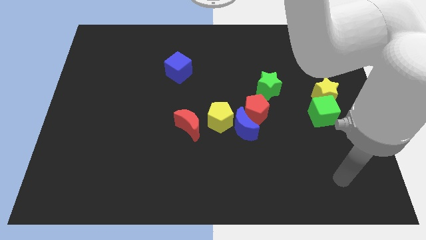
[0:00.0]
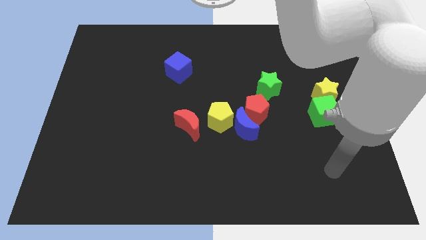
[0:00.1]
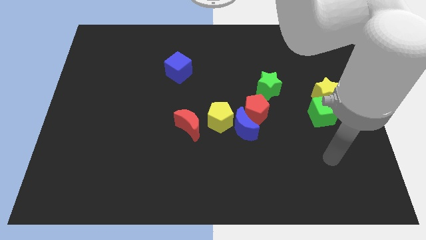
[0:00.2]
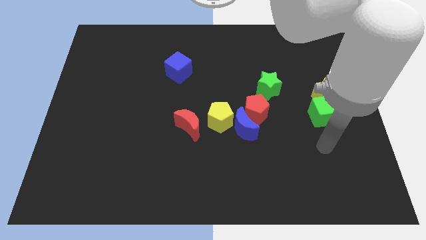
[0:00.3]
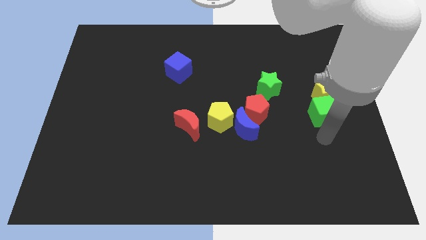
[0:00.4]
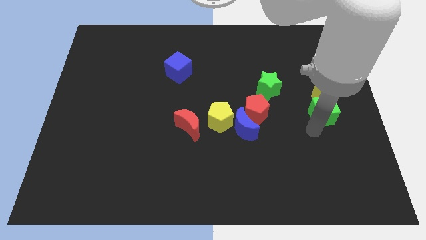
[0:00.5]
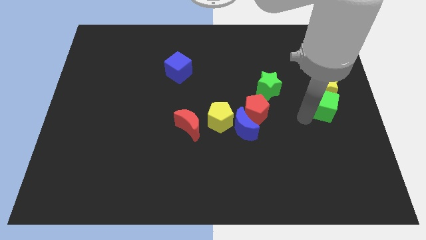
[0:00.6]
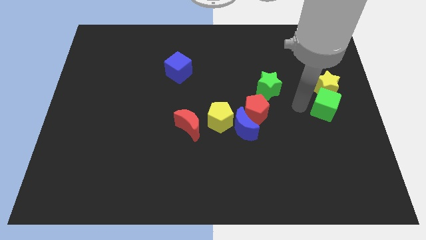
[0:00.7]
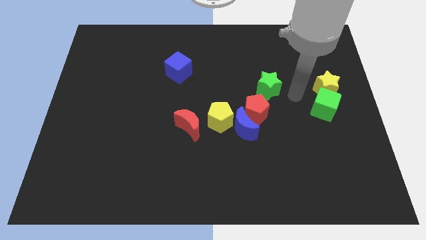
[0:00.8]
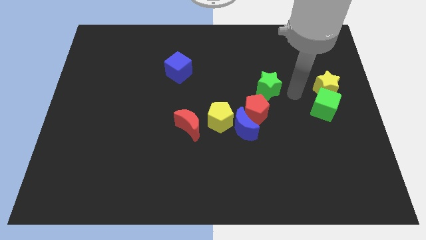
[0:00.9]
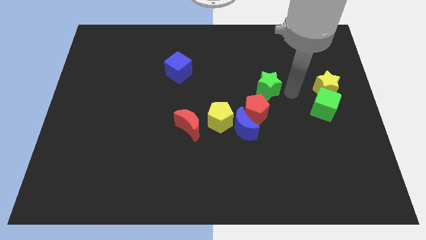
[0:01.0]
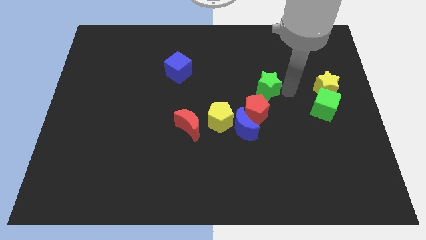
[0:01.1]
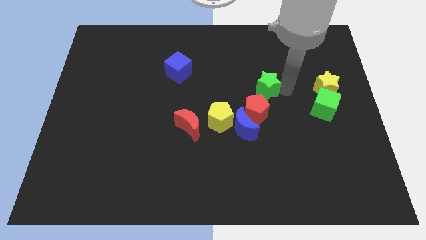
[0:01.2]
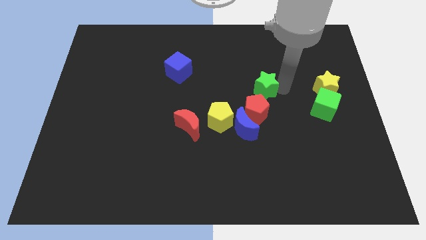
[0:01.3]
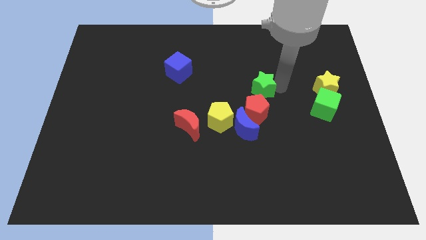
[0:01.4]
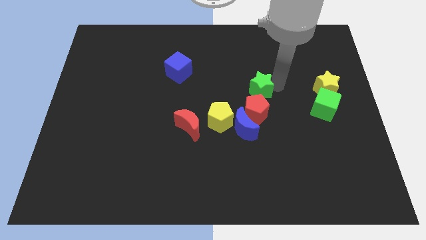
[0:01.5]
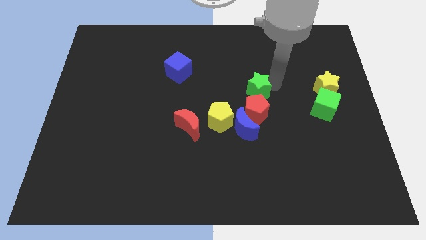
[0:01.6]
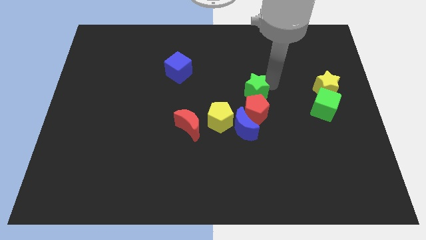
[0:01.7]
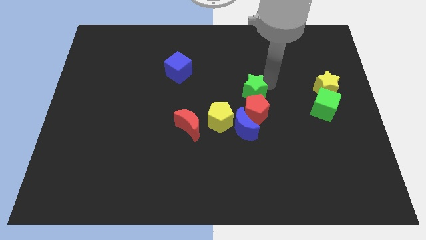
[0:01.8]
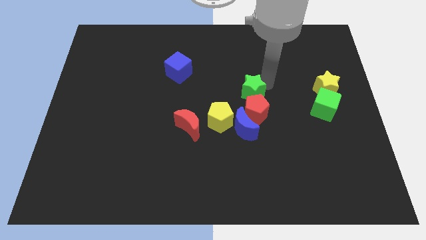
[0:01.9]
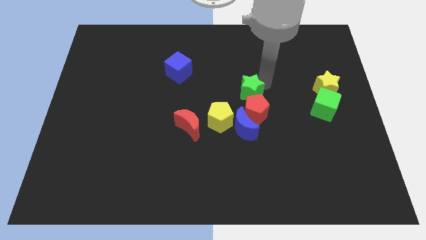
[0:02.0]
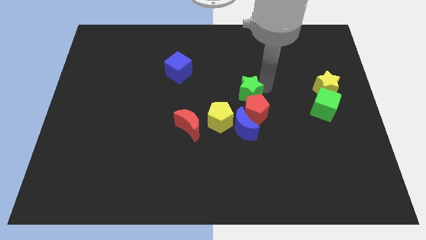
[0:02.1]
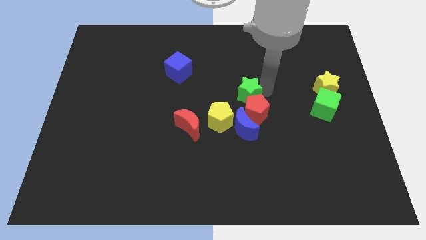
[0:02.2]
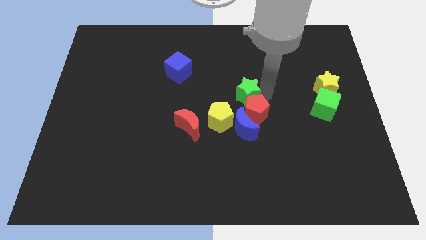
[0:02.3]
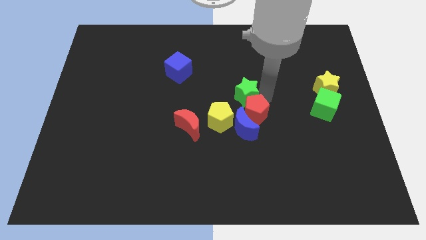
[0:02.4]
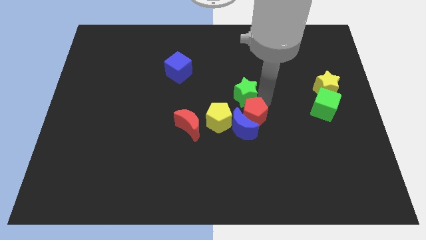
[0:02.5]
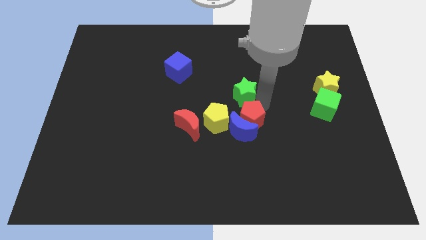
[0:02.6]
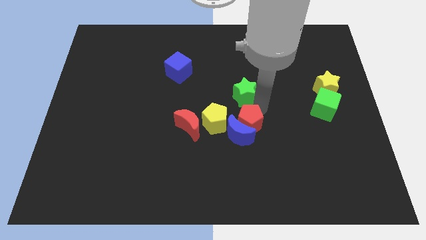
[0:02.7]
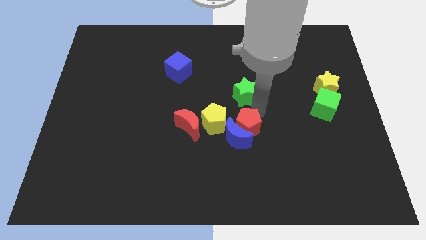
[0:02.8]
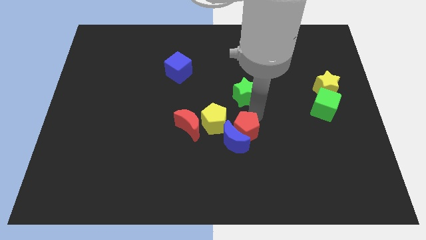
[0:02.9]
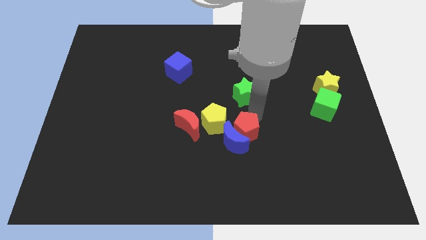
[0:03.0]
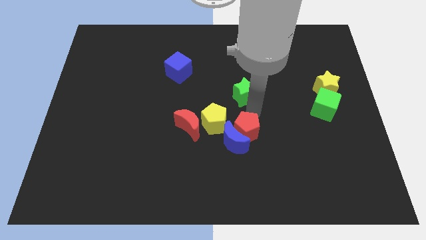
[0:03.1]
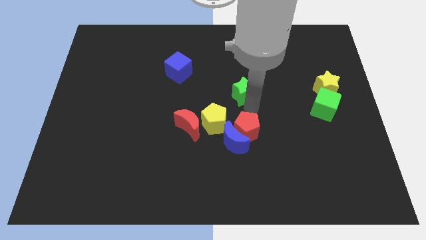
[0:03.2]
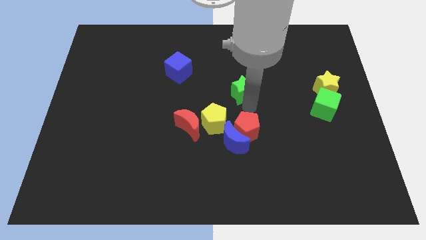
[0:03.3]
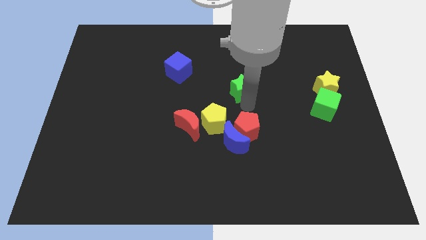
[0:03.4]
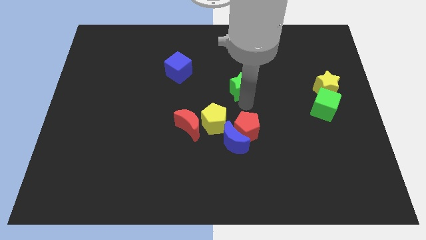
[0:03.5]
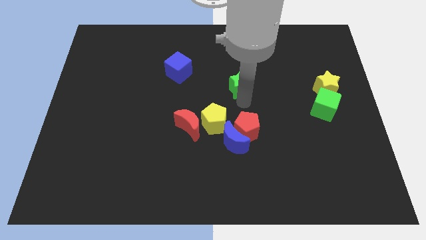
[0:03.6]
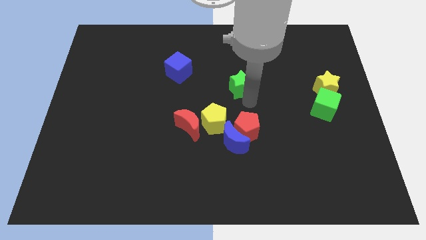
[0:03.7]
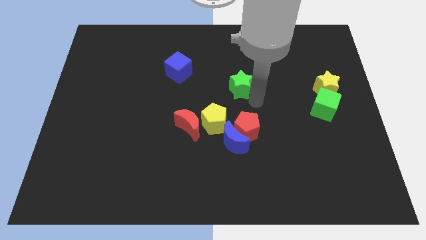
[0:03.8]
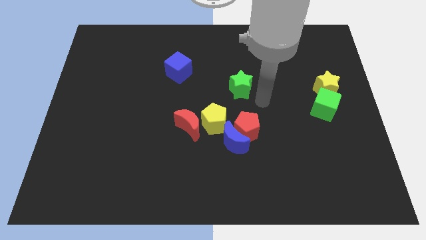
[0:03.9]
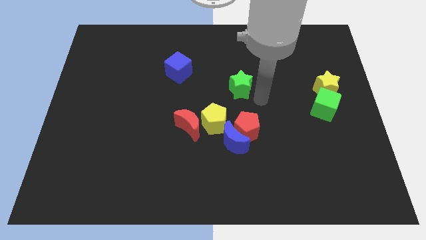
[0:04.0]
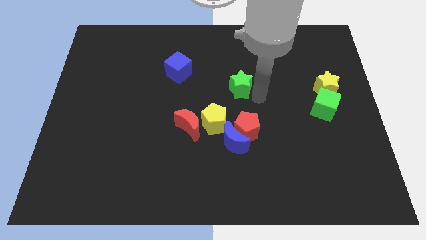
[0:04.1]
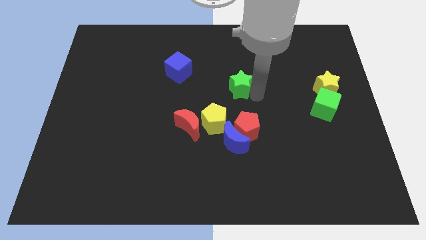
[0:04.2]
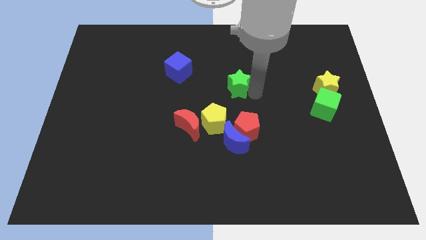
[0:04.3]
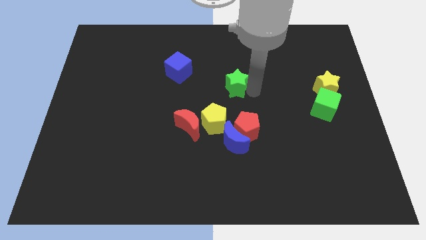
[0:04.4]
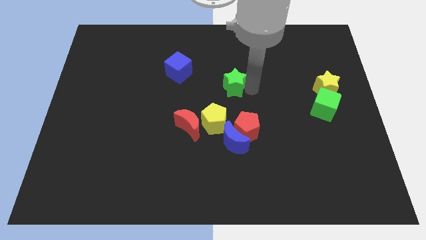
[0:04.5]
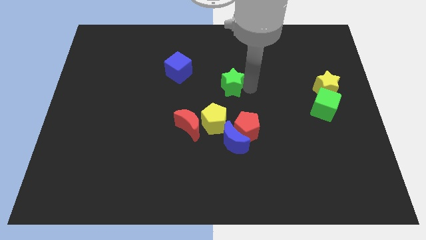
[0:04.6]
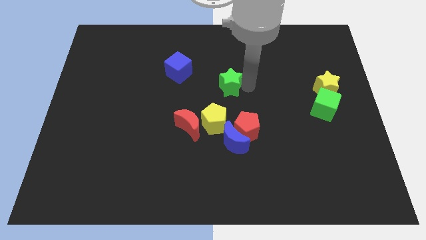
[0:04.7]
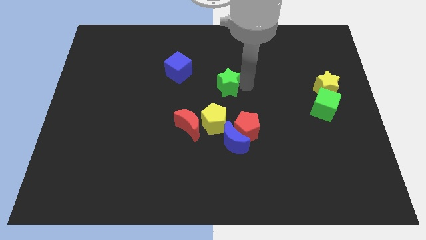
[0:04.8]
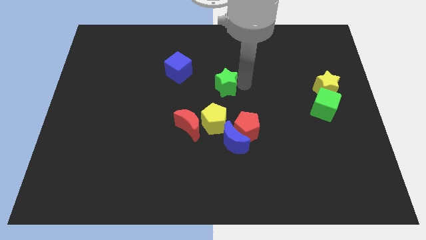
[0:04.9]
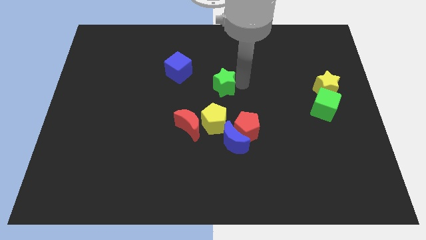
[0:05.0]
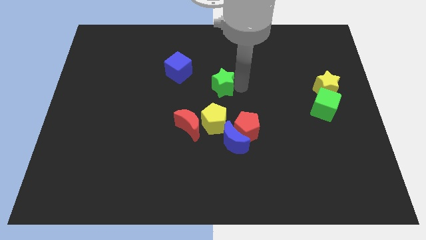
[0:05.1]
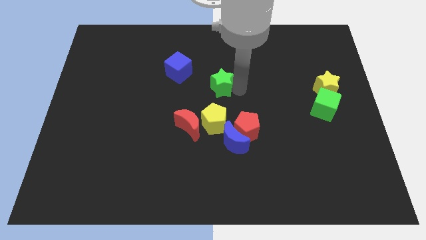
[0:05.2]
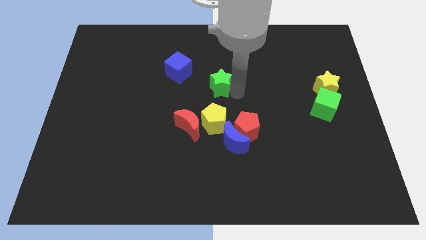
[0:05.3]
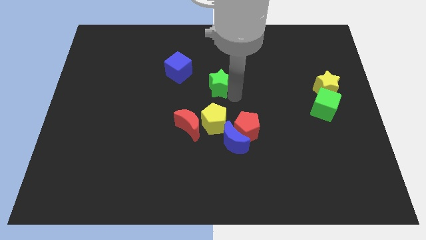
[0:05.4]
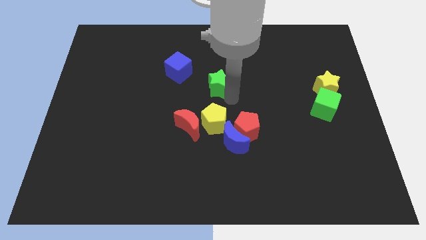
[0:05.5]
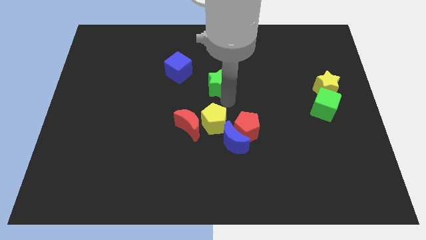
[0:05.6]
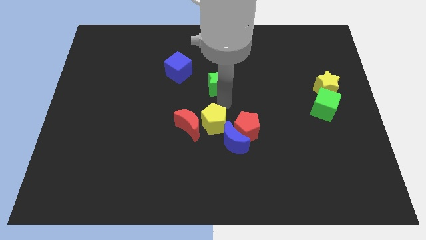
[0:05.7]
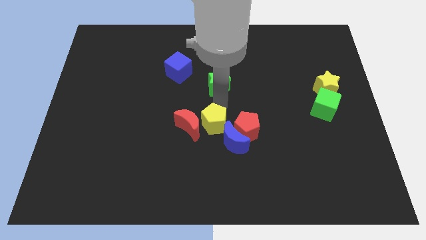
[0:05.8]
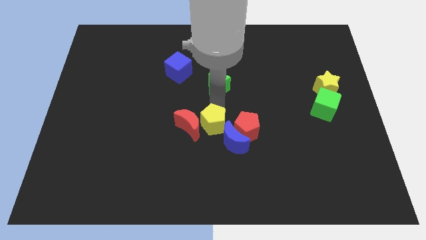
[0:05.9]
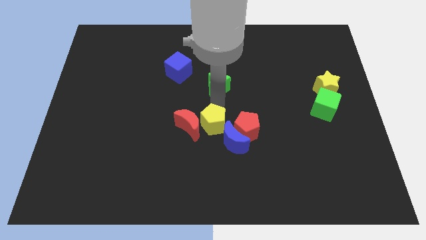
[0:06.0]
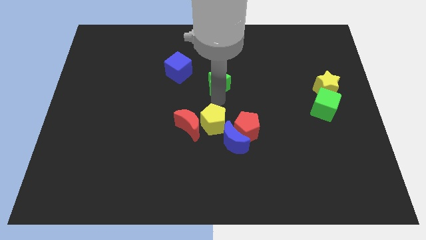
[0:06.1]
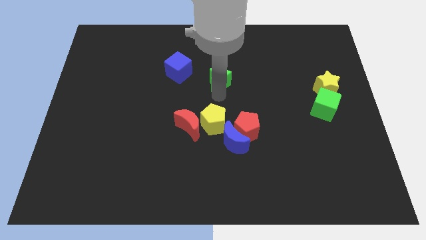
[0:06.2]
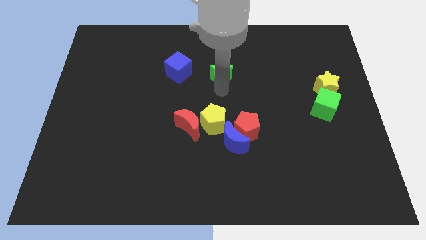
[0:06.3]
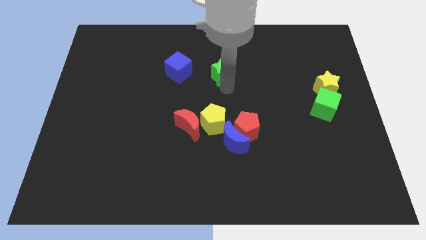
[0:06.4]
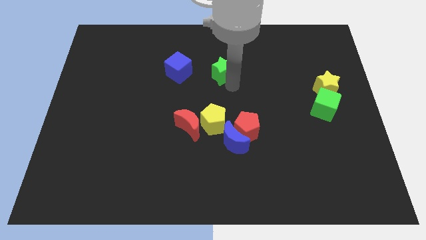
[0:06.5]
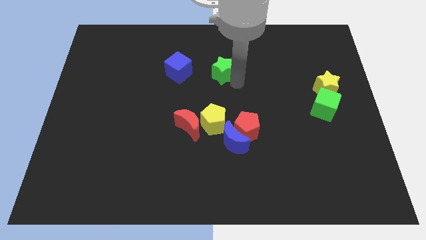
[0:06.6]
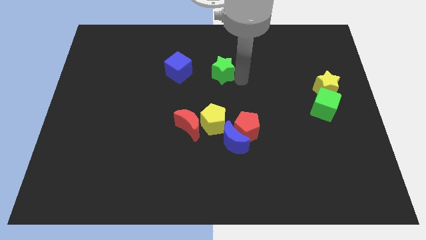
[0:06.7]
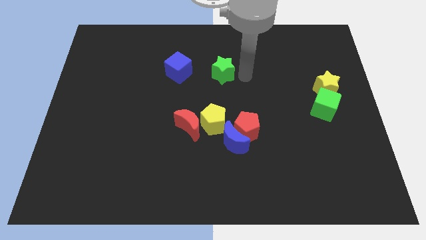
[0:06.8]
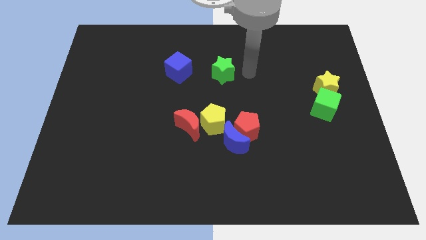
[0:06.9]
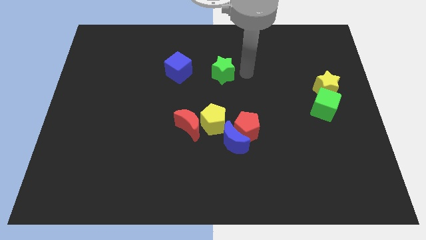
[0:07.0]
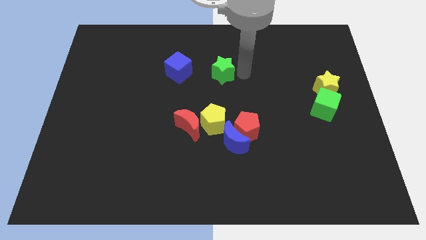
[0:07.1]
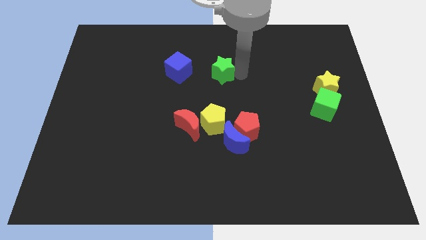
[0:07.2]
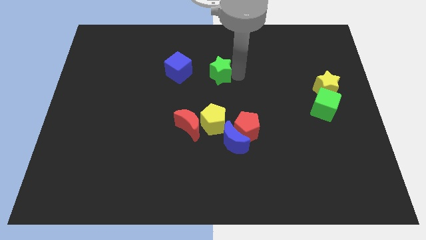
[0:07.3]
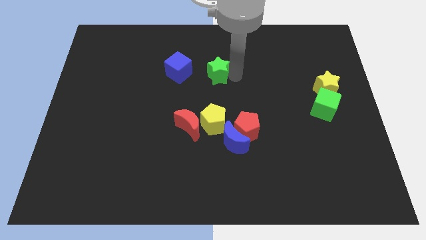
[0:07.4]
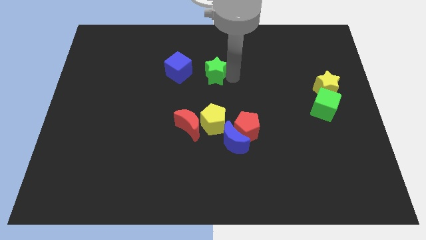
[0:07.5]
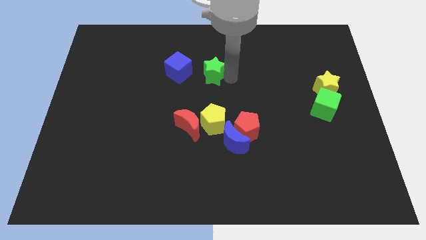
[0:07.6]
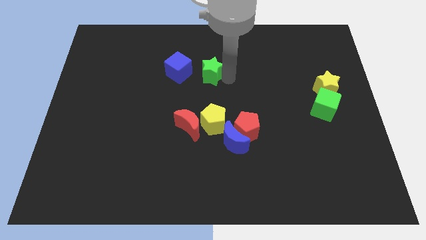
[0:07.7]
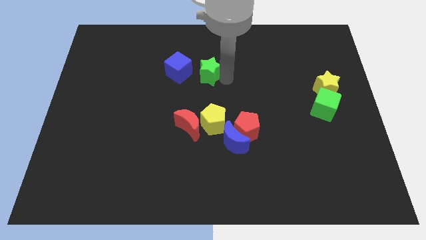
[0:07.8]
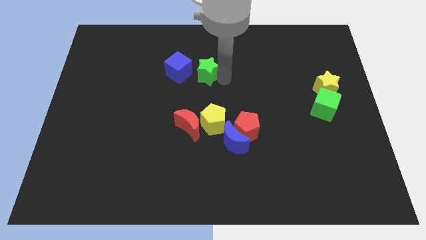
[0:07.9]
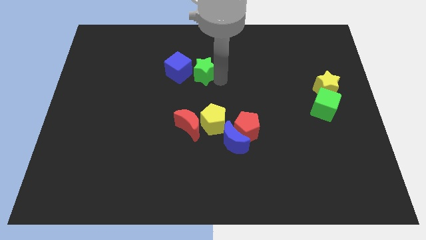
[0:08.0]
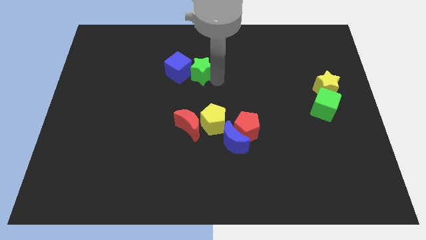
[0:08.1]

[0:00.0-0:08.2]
push the green star next to the blue cube
